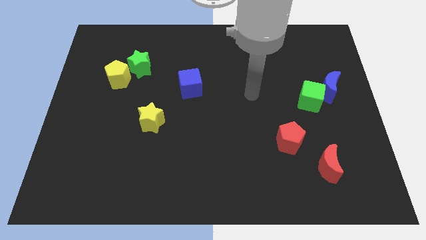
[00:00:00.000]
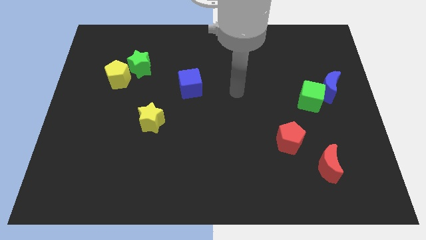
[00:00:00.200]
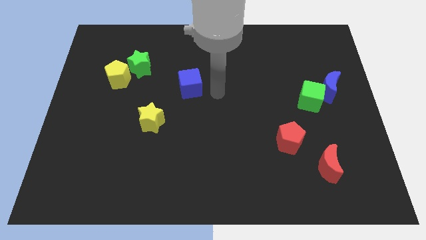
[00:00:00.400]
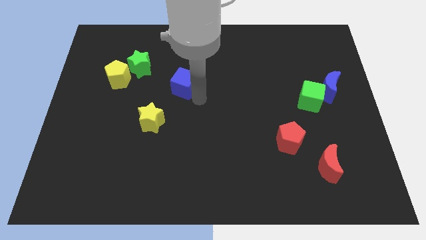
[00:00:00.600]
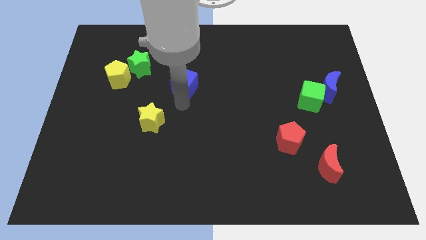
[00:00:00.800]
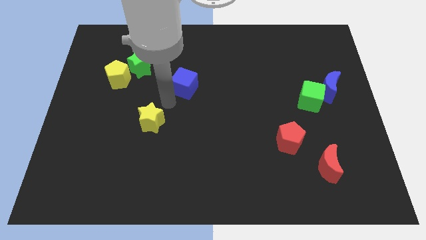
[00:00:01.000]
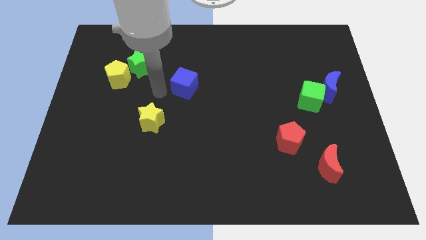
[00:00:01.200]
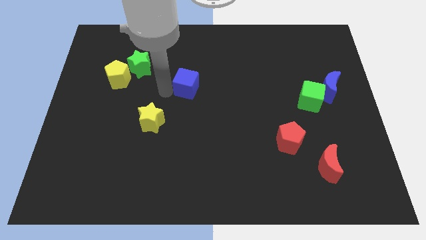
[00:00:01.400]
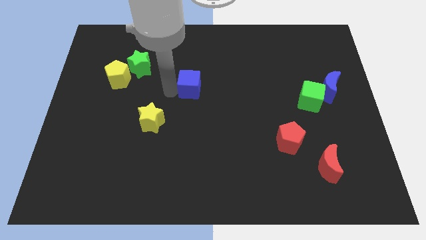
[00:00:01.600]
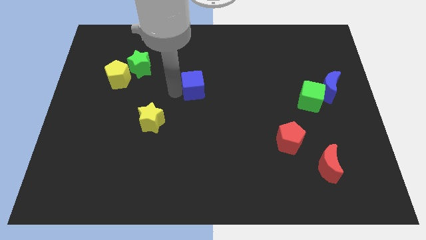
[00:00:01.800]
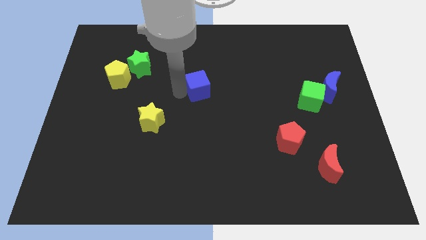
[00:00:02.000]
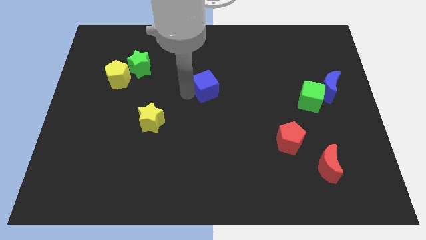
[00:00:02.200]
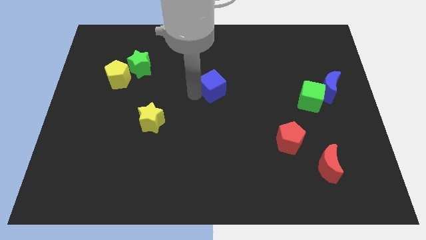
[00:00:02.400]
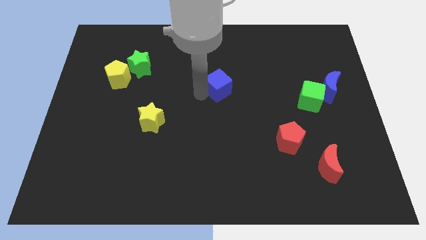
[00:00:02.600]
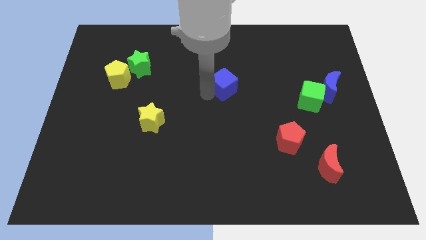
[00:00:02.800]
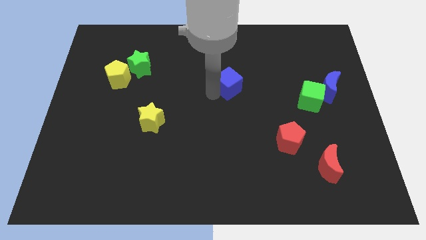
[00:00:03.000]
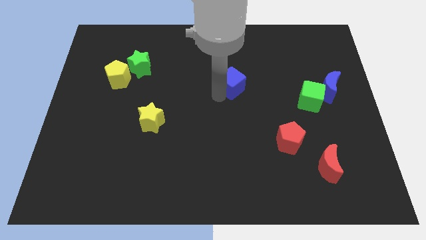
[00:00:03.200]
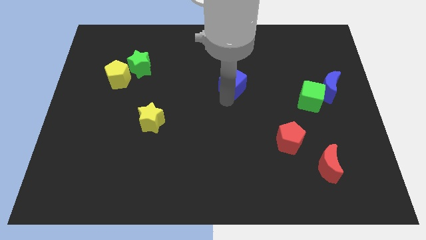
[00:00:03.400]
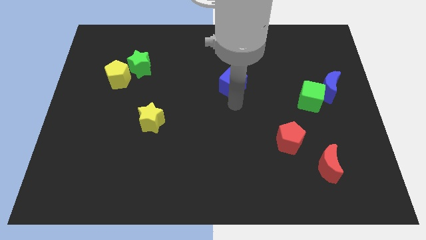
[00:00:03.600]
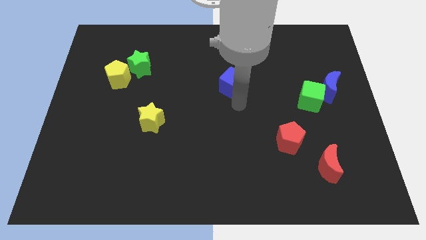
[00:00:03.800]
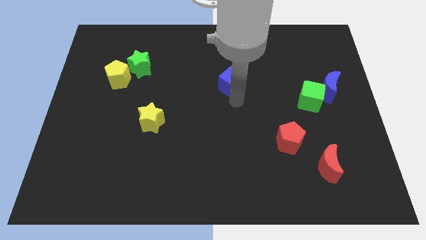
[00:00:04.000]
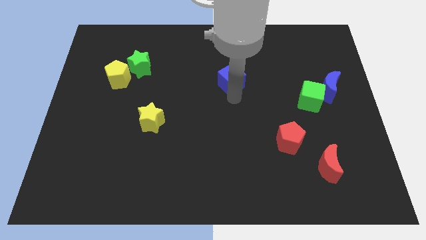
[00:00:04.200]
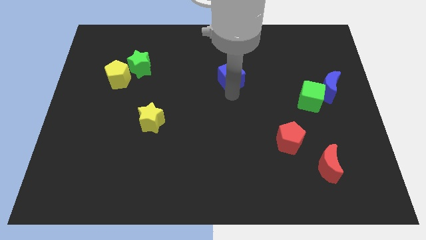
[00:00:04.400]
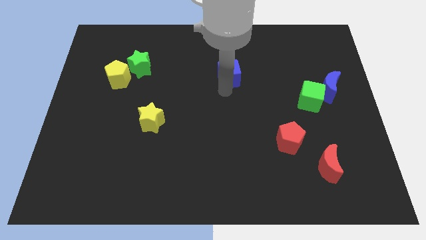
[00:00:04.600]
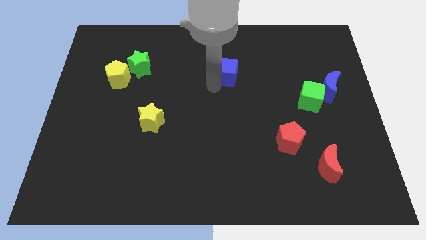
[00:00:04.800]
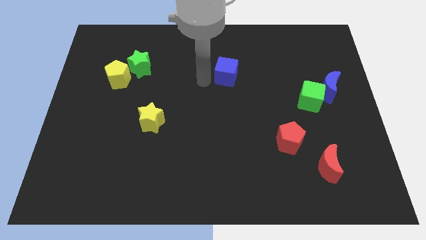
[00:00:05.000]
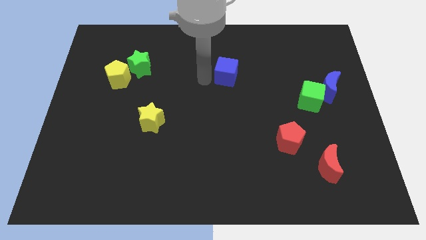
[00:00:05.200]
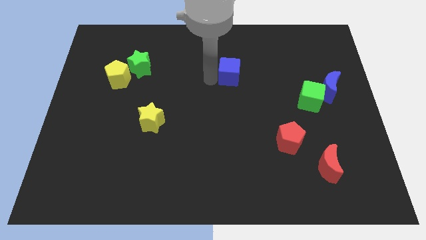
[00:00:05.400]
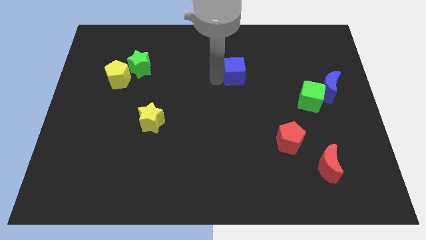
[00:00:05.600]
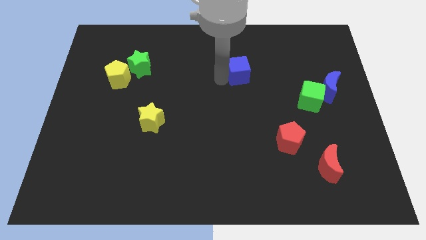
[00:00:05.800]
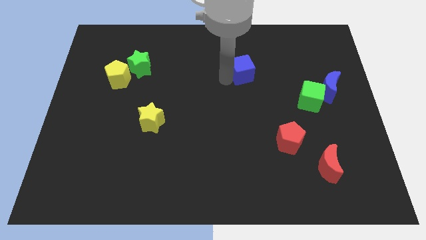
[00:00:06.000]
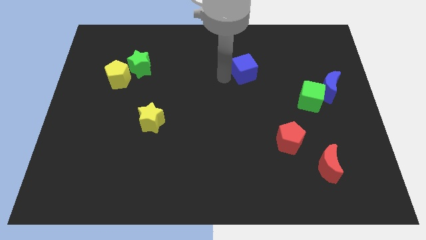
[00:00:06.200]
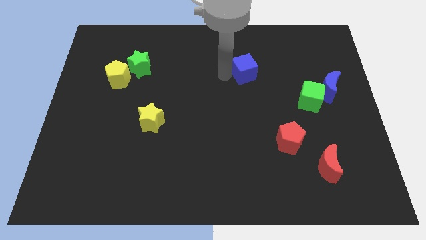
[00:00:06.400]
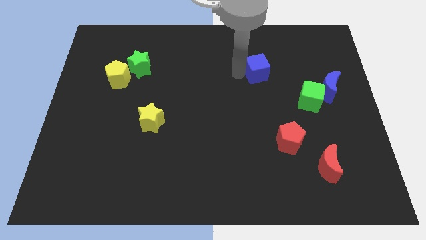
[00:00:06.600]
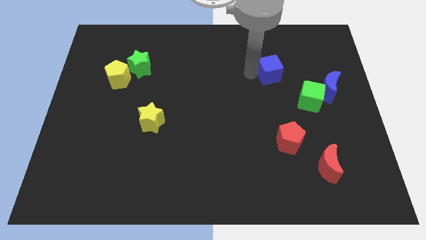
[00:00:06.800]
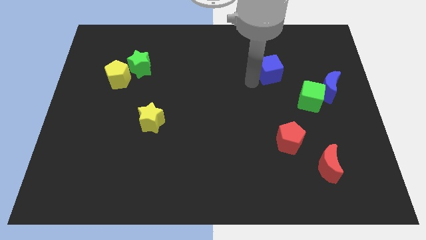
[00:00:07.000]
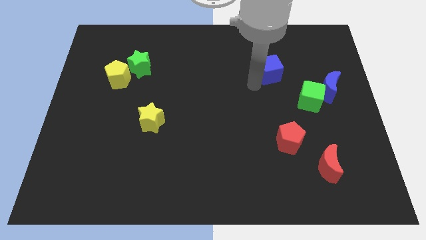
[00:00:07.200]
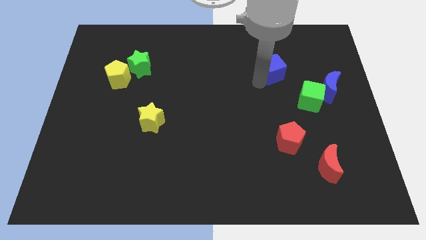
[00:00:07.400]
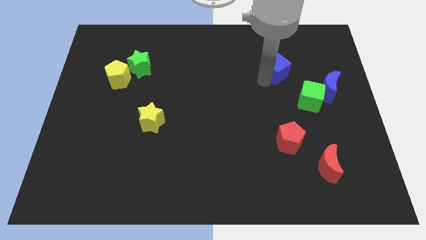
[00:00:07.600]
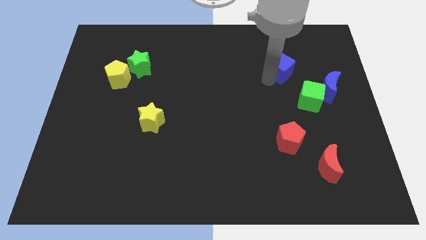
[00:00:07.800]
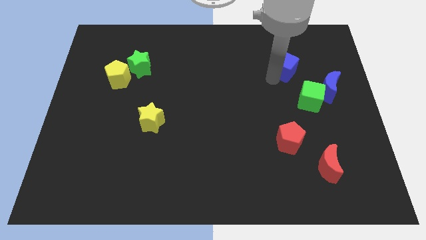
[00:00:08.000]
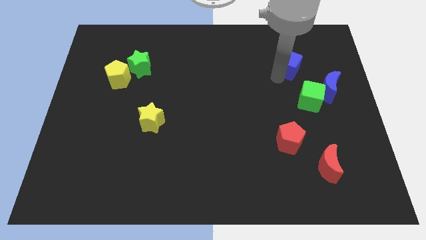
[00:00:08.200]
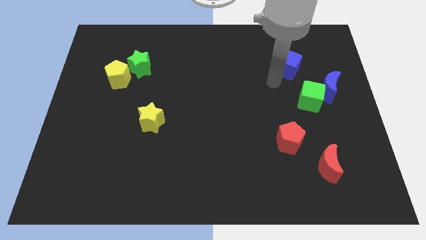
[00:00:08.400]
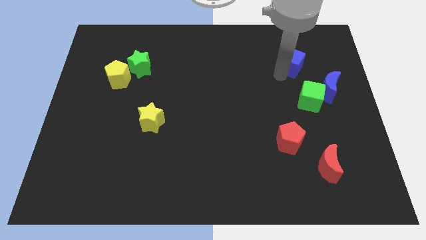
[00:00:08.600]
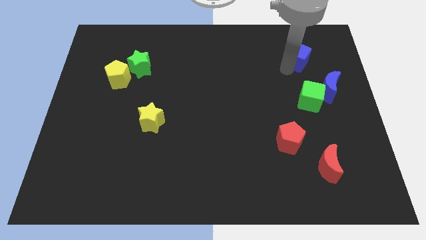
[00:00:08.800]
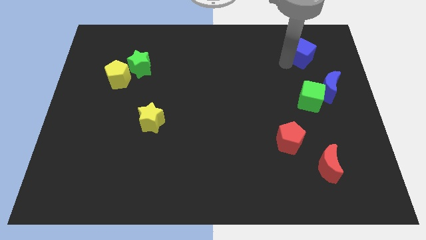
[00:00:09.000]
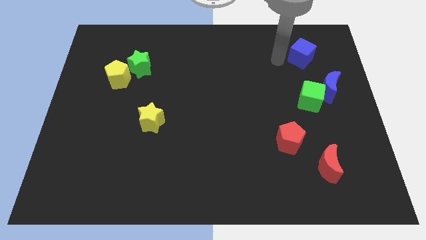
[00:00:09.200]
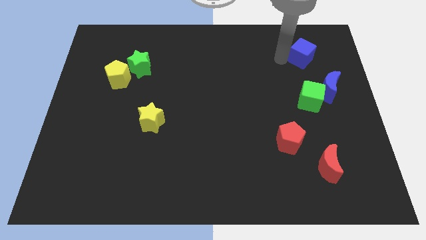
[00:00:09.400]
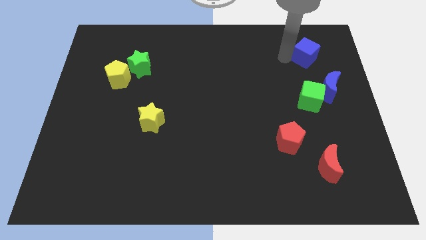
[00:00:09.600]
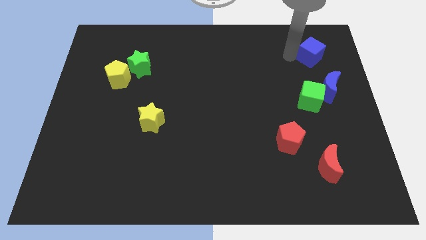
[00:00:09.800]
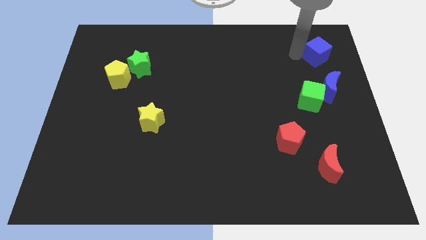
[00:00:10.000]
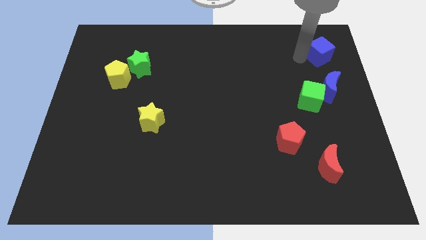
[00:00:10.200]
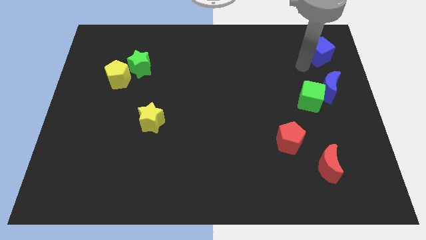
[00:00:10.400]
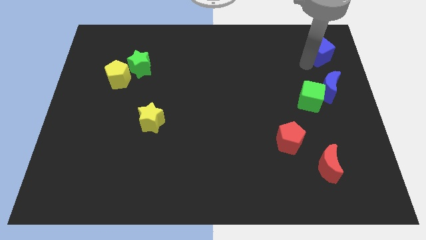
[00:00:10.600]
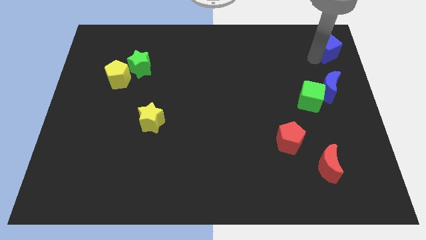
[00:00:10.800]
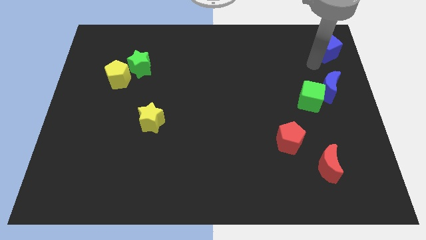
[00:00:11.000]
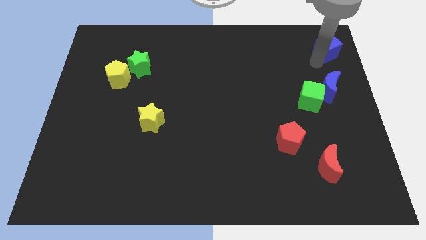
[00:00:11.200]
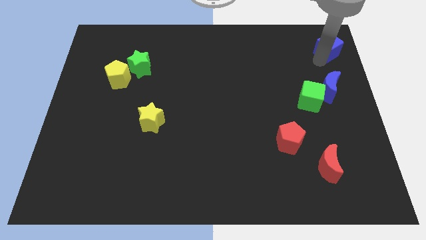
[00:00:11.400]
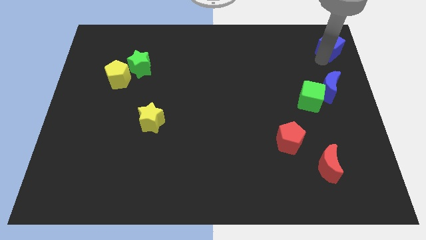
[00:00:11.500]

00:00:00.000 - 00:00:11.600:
slide the blue cube to the top right corner

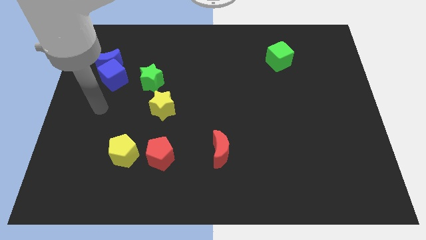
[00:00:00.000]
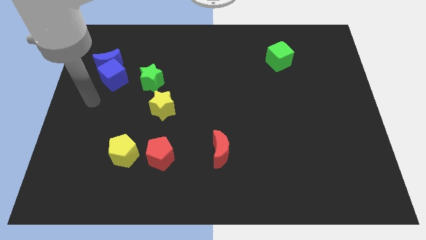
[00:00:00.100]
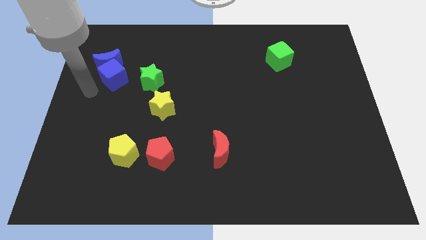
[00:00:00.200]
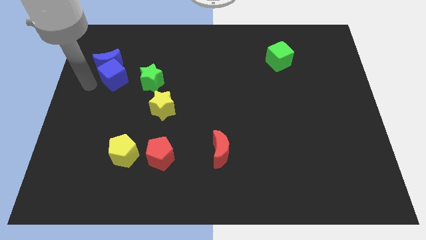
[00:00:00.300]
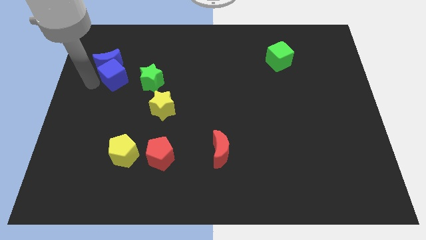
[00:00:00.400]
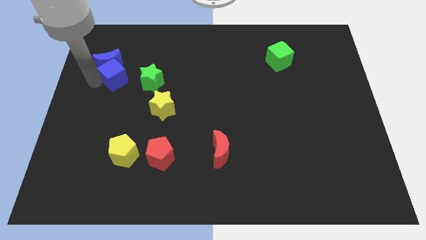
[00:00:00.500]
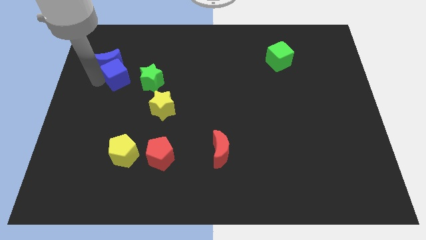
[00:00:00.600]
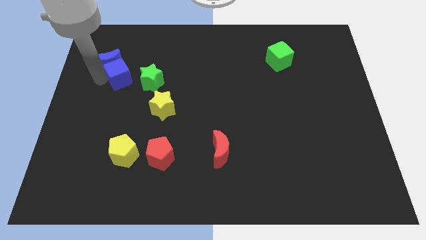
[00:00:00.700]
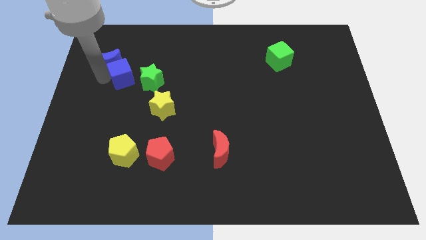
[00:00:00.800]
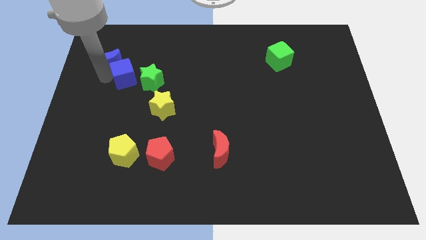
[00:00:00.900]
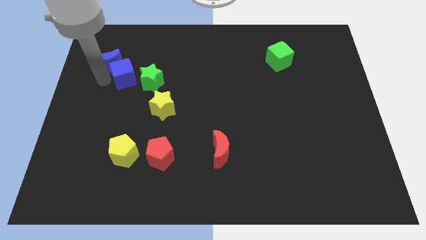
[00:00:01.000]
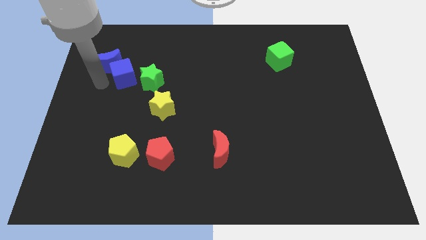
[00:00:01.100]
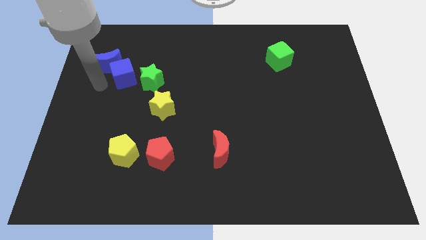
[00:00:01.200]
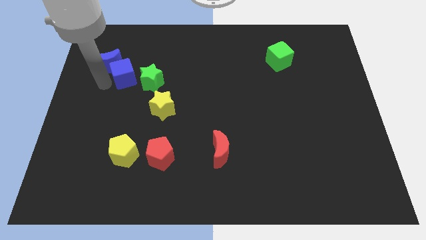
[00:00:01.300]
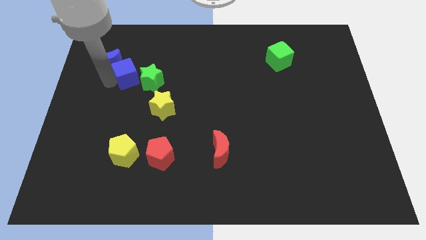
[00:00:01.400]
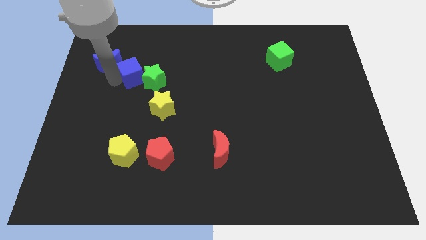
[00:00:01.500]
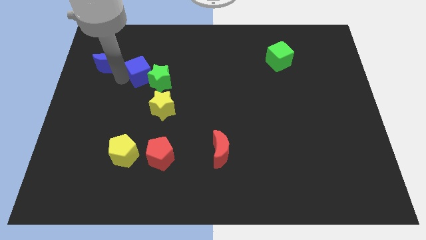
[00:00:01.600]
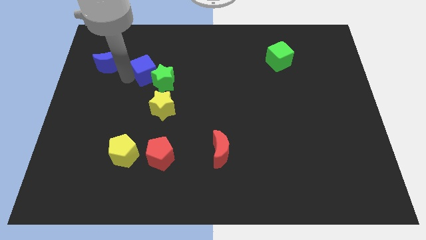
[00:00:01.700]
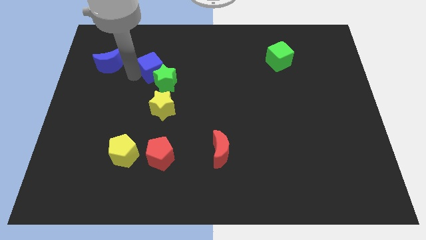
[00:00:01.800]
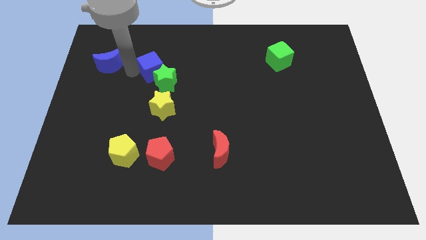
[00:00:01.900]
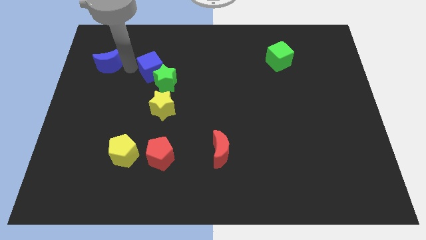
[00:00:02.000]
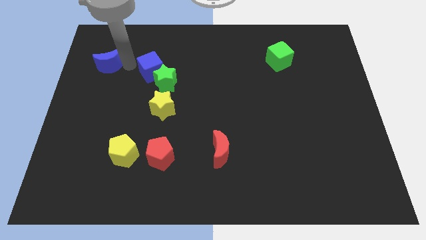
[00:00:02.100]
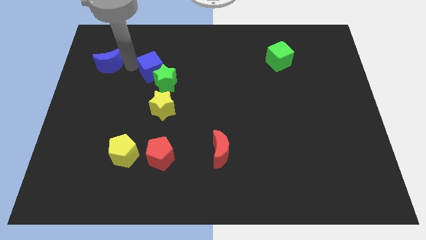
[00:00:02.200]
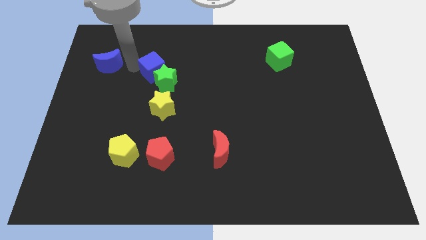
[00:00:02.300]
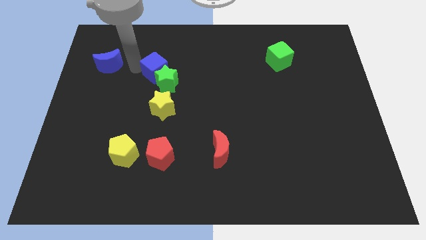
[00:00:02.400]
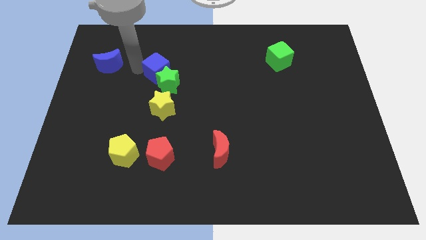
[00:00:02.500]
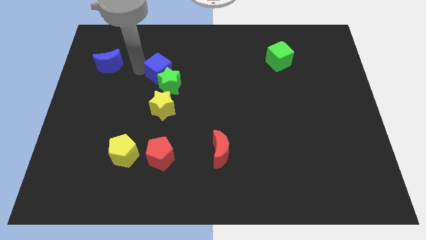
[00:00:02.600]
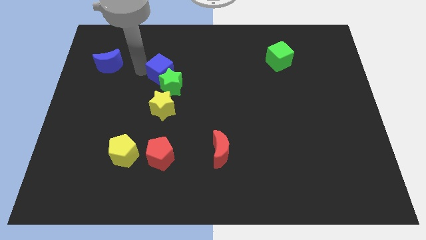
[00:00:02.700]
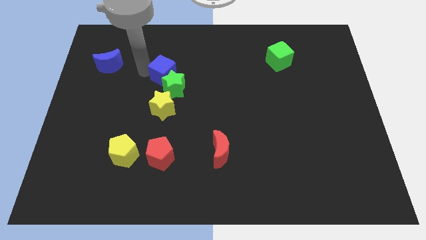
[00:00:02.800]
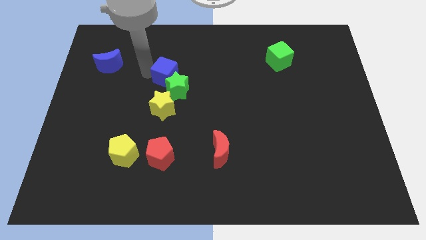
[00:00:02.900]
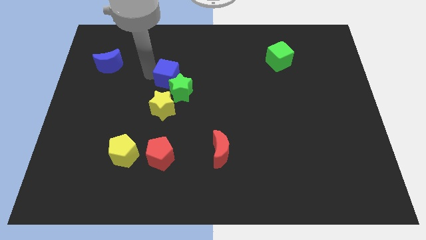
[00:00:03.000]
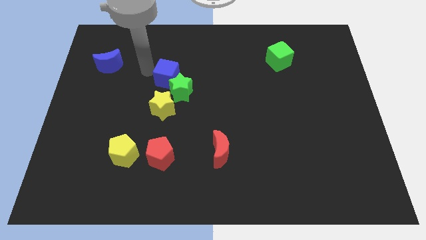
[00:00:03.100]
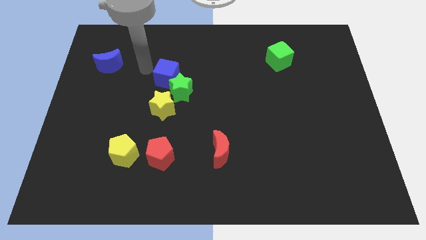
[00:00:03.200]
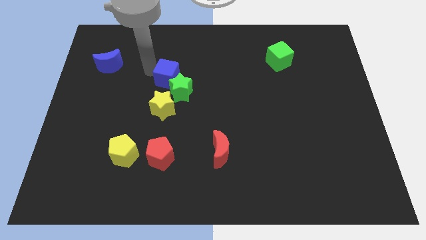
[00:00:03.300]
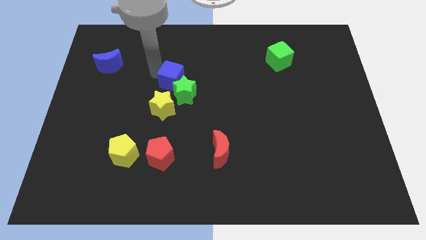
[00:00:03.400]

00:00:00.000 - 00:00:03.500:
move the blue cube to the middle
